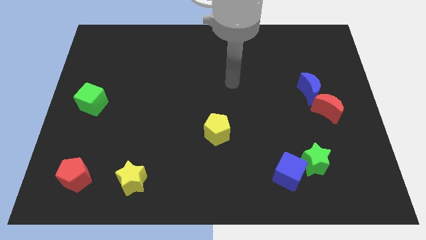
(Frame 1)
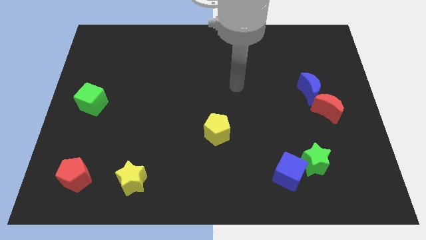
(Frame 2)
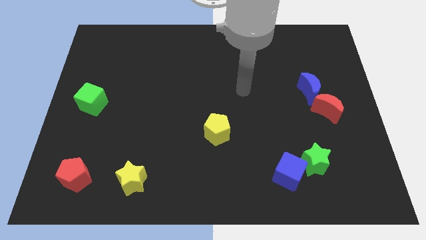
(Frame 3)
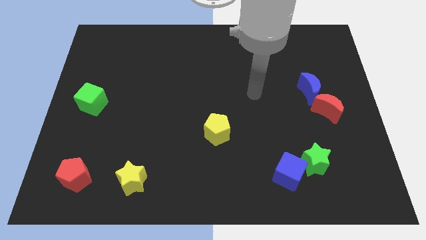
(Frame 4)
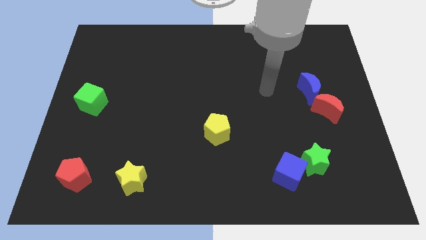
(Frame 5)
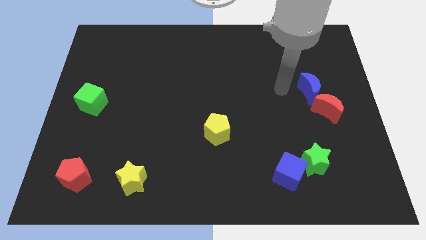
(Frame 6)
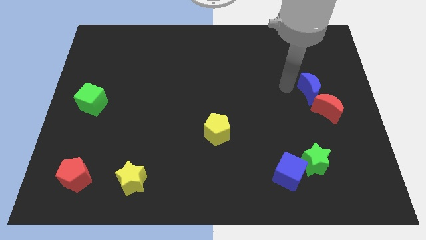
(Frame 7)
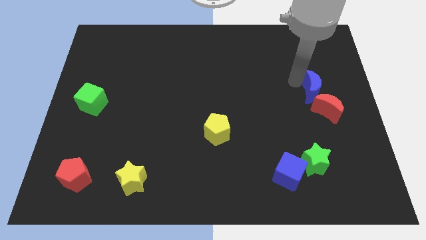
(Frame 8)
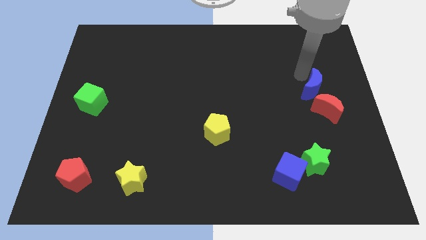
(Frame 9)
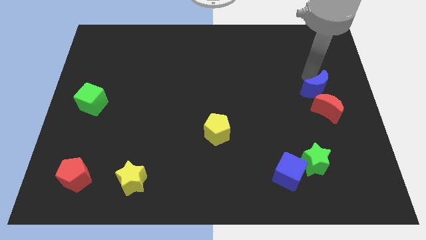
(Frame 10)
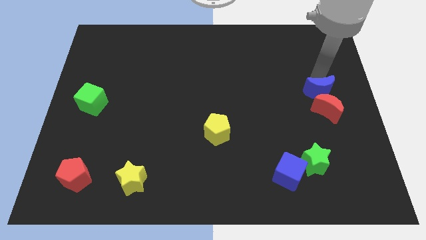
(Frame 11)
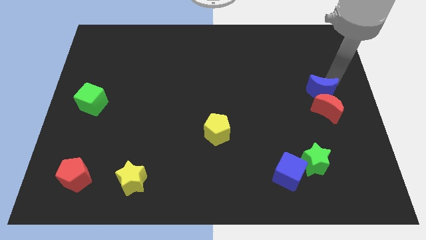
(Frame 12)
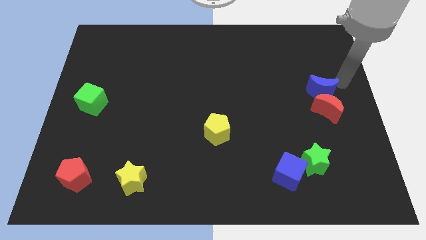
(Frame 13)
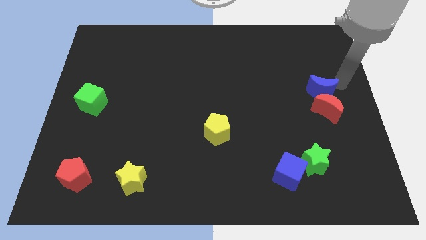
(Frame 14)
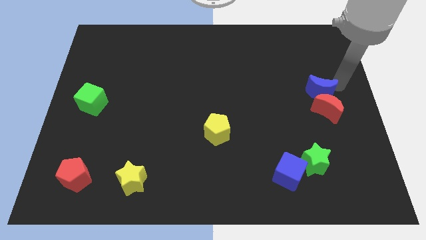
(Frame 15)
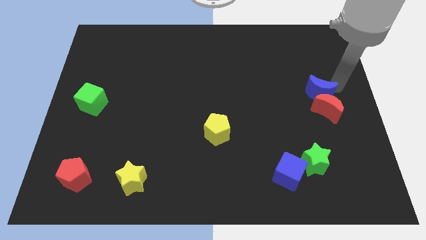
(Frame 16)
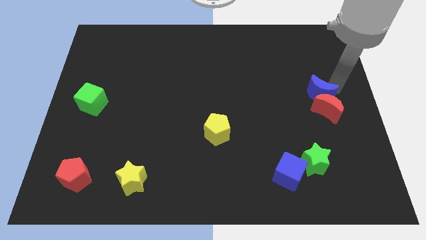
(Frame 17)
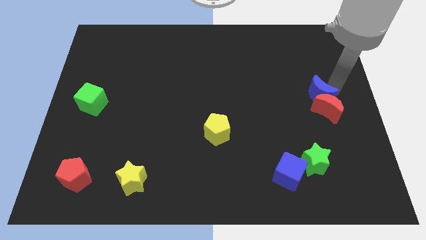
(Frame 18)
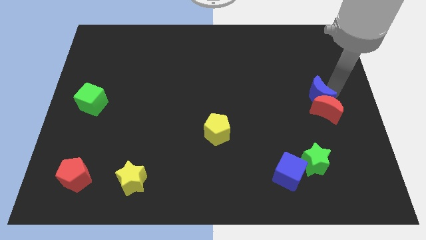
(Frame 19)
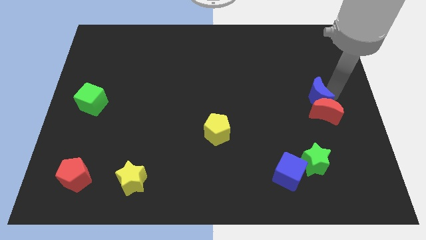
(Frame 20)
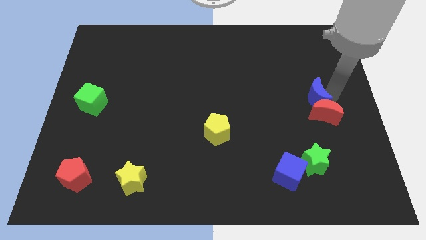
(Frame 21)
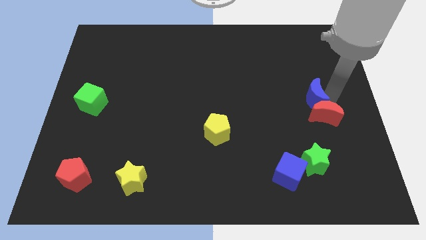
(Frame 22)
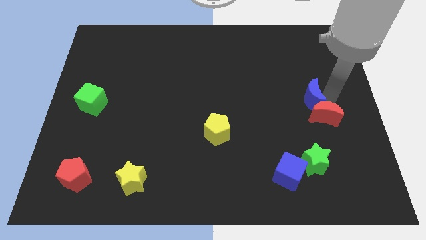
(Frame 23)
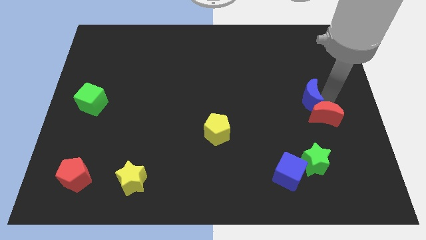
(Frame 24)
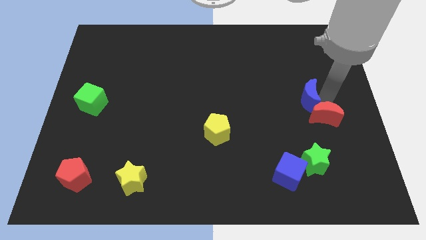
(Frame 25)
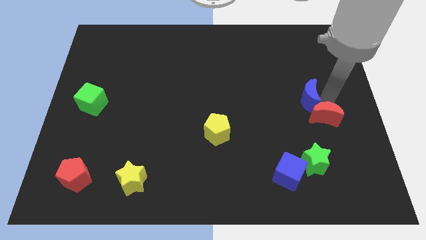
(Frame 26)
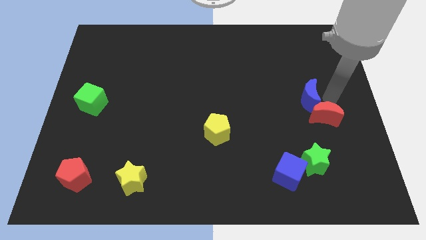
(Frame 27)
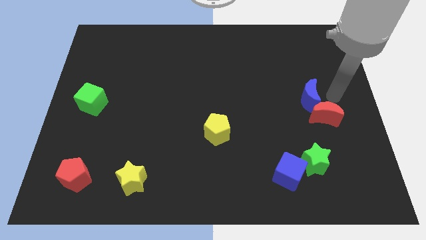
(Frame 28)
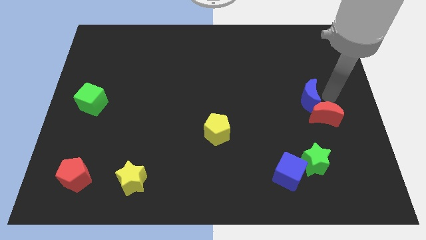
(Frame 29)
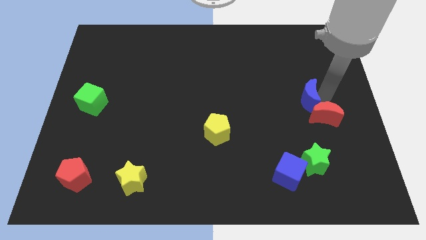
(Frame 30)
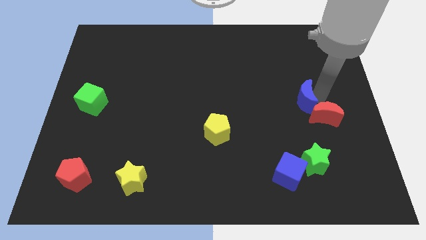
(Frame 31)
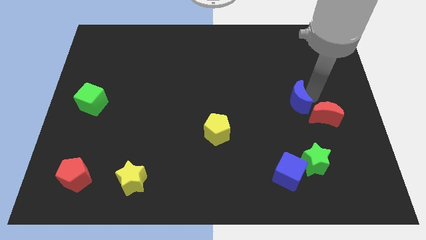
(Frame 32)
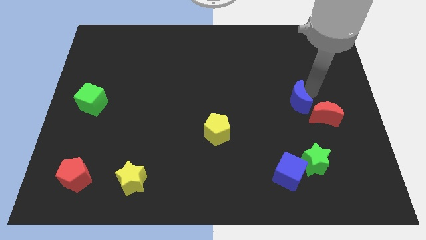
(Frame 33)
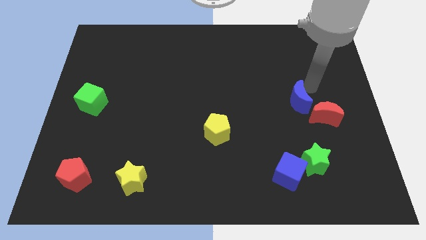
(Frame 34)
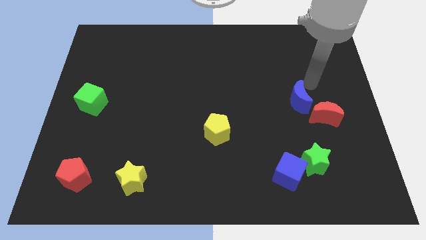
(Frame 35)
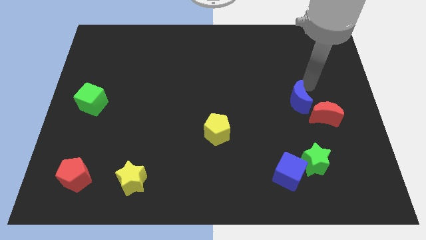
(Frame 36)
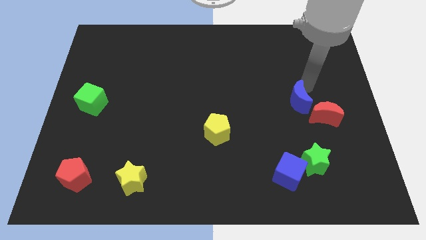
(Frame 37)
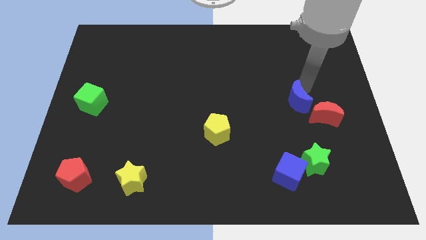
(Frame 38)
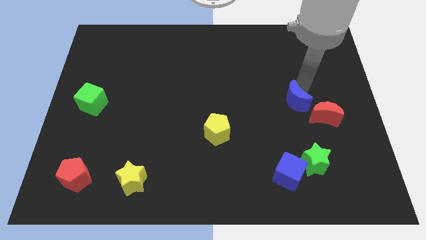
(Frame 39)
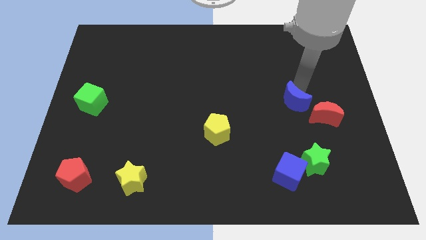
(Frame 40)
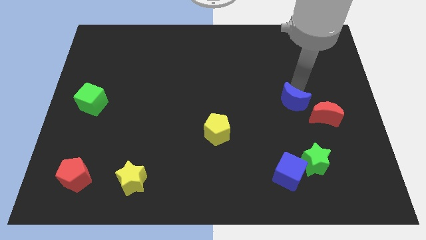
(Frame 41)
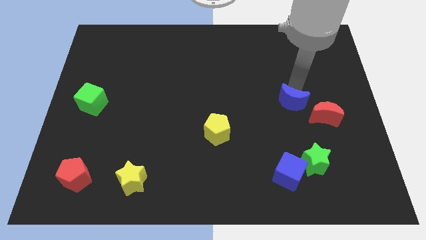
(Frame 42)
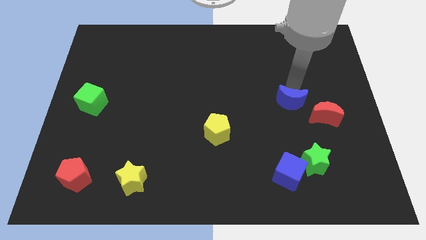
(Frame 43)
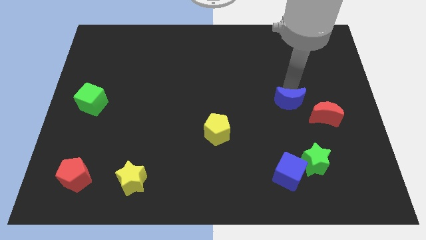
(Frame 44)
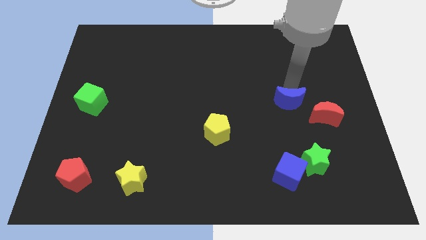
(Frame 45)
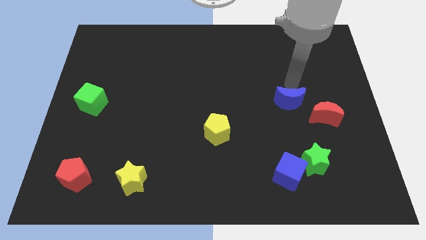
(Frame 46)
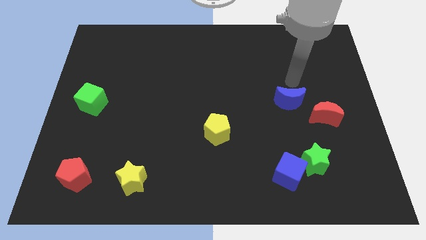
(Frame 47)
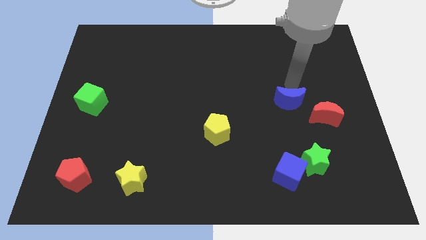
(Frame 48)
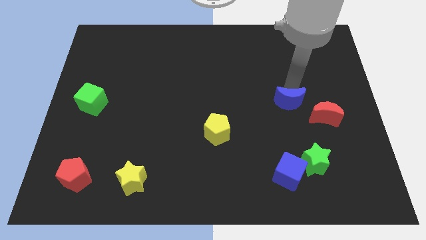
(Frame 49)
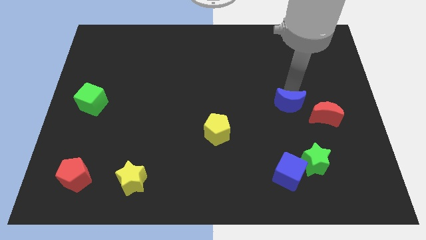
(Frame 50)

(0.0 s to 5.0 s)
slightly push the blue moon diagonally downwards and to the left

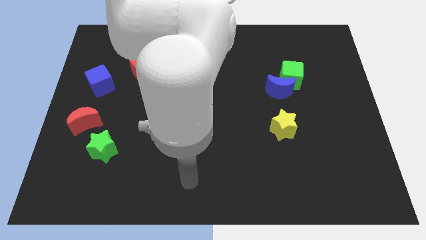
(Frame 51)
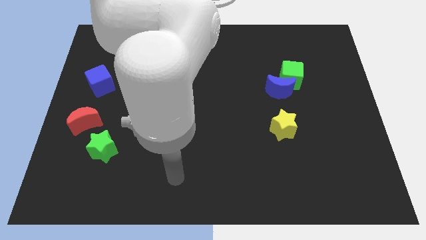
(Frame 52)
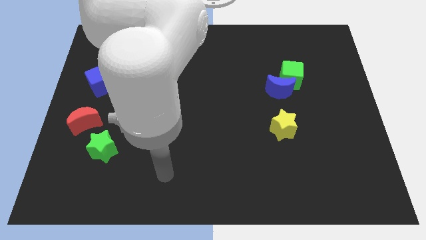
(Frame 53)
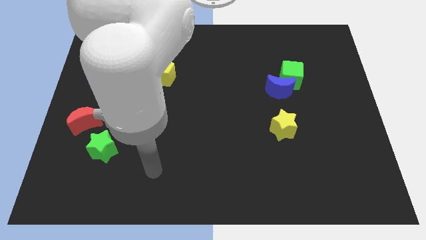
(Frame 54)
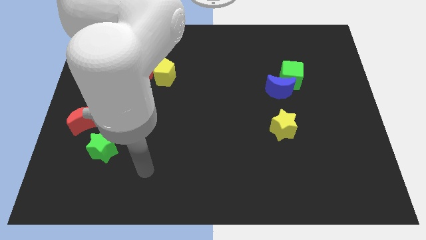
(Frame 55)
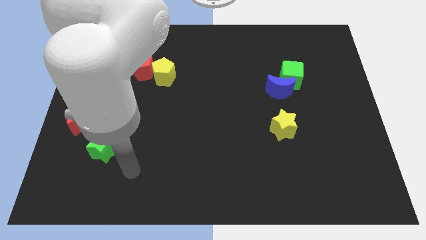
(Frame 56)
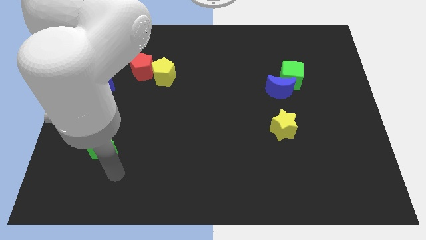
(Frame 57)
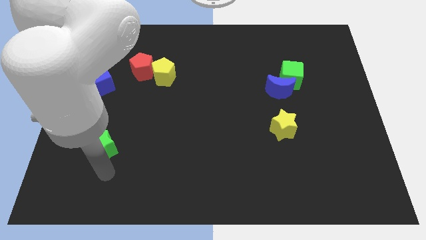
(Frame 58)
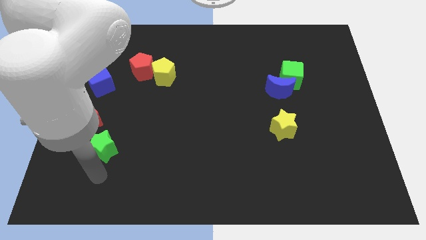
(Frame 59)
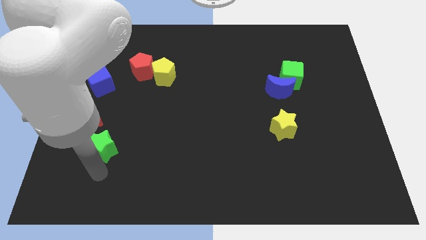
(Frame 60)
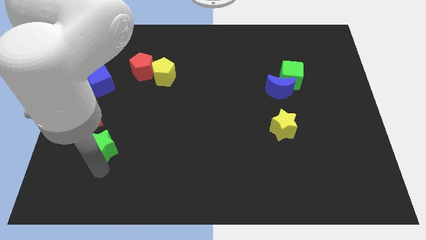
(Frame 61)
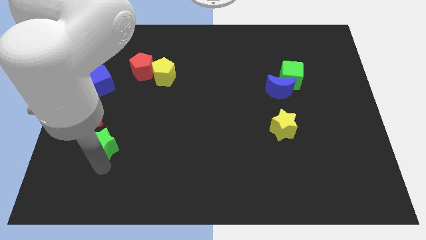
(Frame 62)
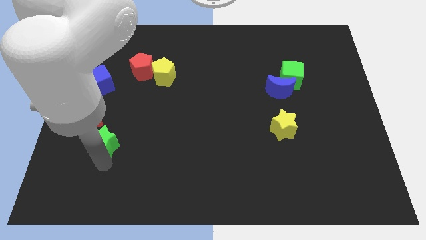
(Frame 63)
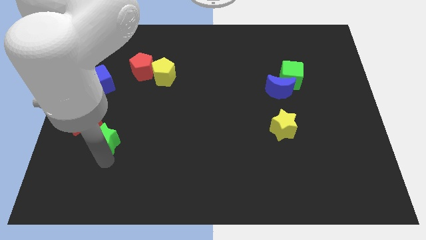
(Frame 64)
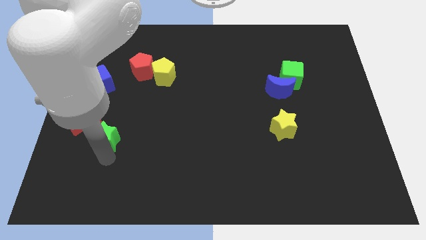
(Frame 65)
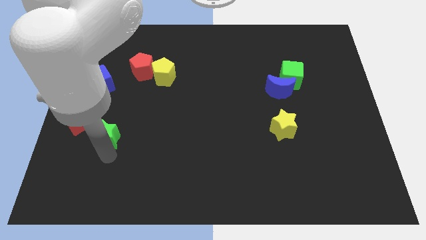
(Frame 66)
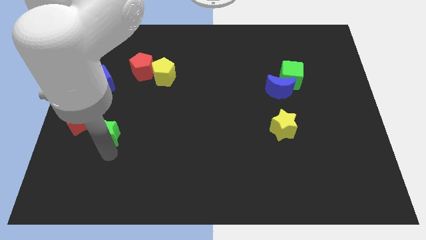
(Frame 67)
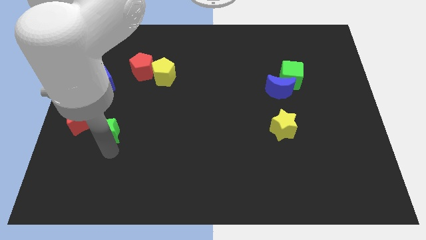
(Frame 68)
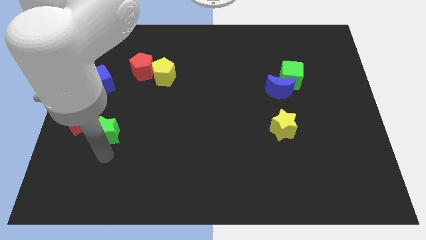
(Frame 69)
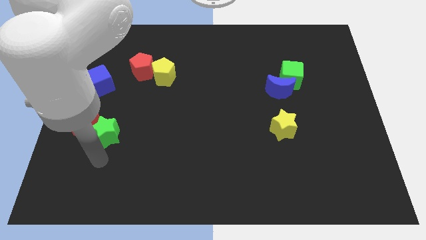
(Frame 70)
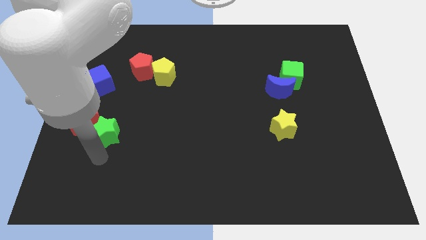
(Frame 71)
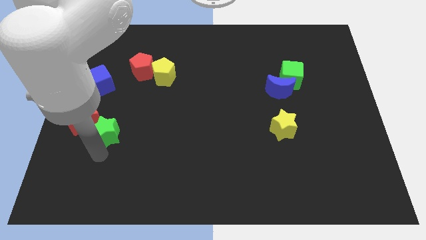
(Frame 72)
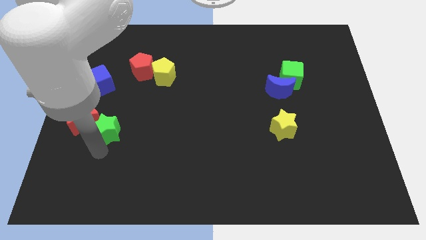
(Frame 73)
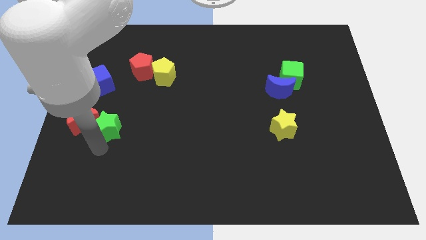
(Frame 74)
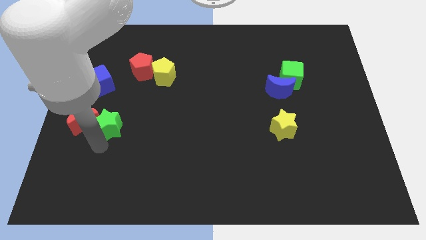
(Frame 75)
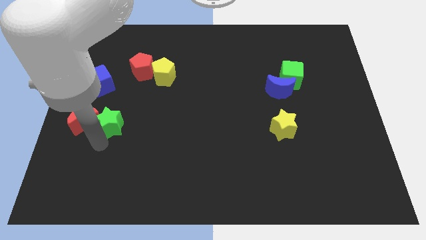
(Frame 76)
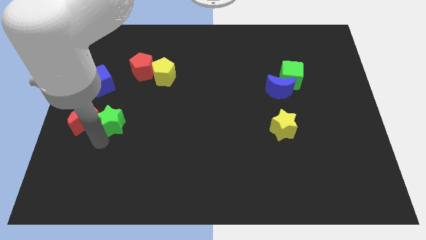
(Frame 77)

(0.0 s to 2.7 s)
push the green star upwards a bit

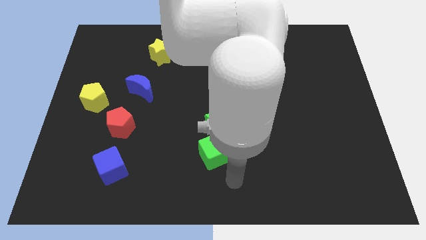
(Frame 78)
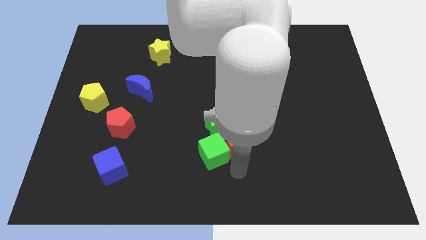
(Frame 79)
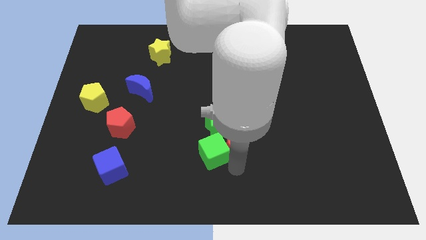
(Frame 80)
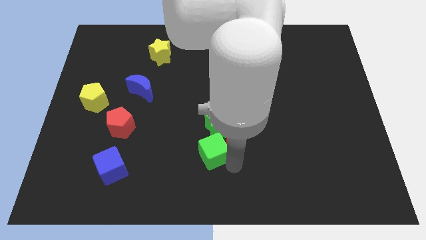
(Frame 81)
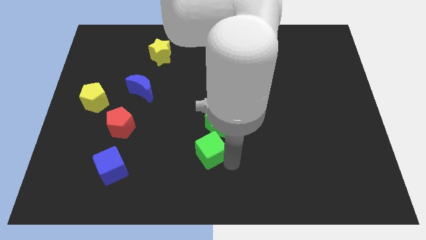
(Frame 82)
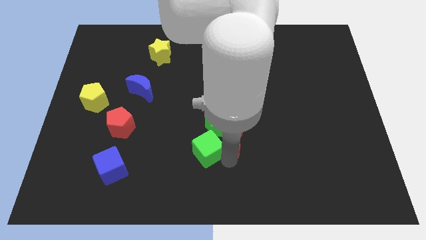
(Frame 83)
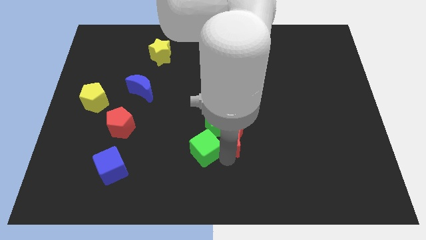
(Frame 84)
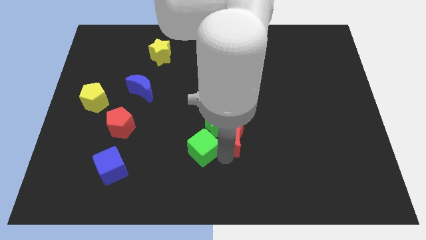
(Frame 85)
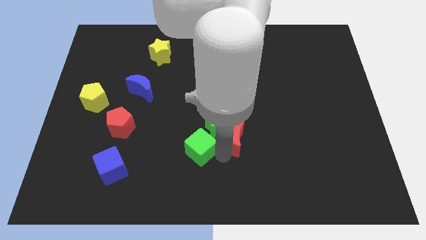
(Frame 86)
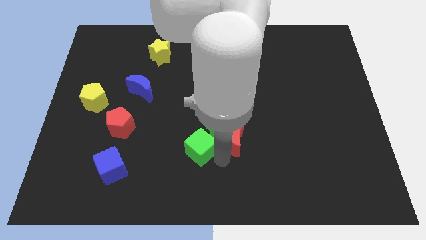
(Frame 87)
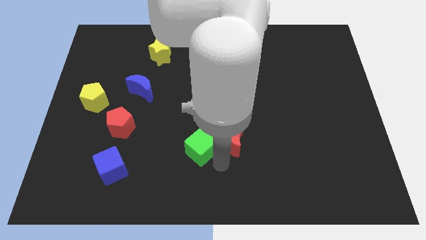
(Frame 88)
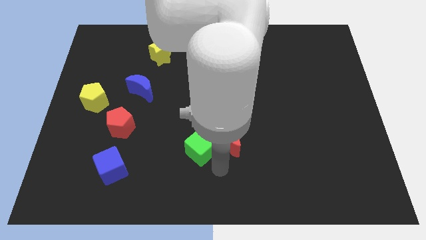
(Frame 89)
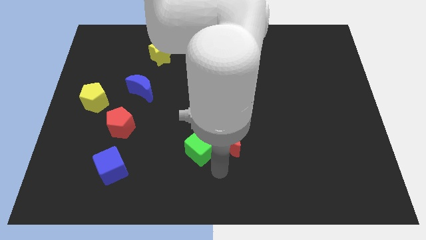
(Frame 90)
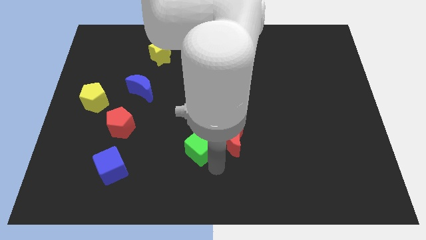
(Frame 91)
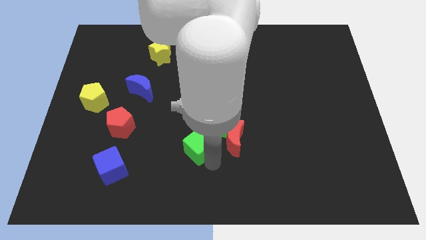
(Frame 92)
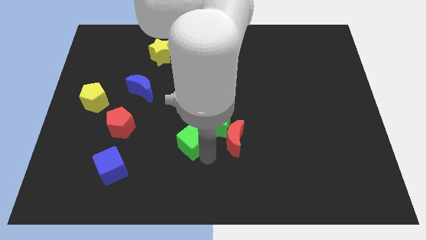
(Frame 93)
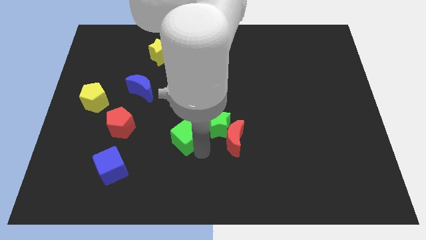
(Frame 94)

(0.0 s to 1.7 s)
push the green cube slightly diagonally upwards and left
